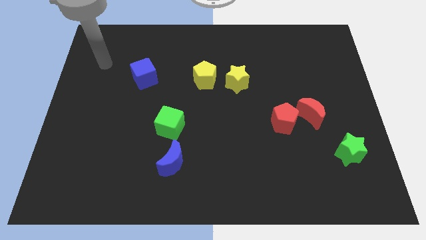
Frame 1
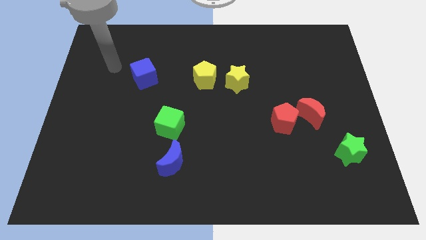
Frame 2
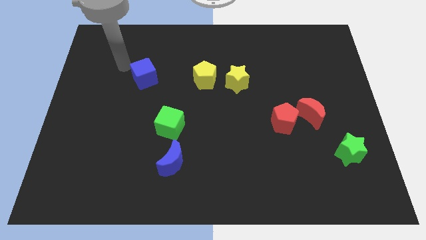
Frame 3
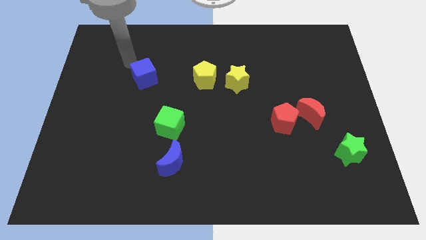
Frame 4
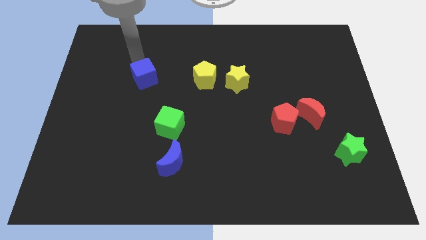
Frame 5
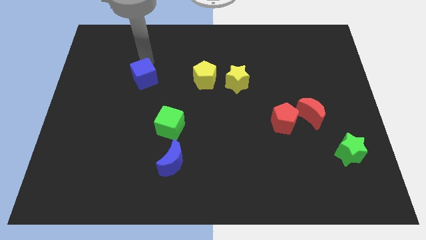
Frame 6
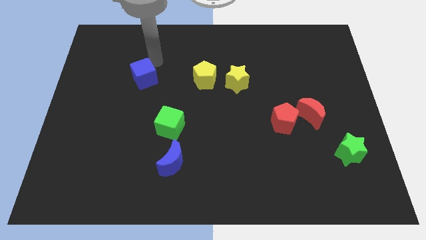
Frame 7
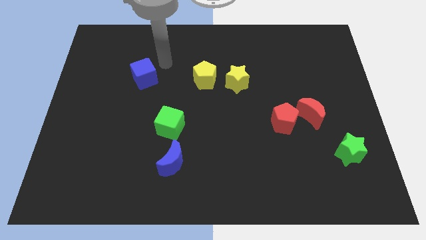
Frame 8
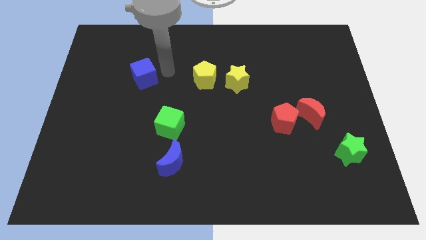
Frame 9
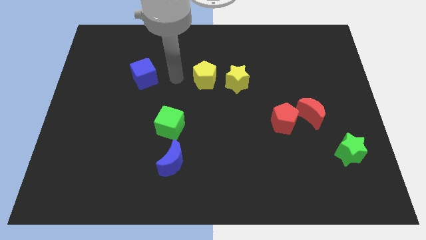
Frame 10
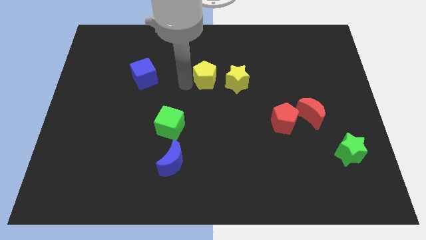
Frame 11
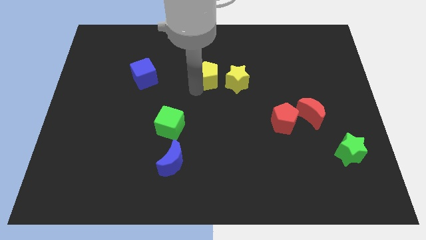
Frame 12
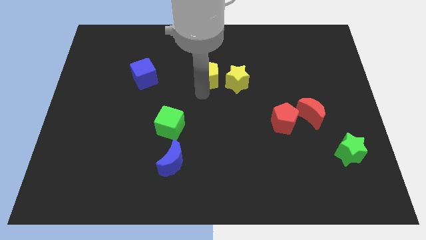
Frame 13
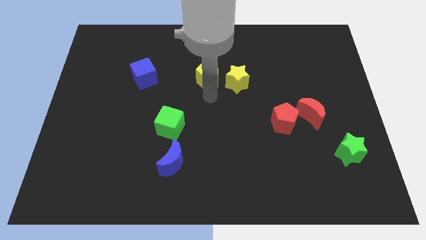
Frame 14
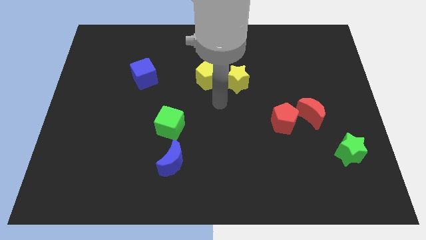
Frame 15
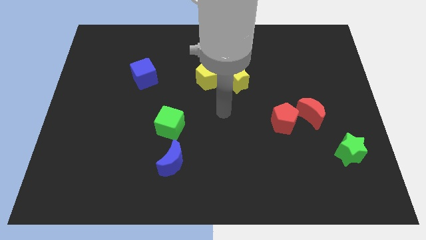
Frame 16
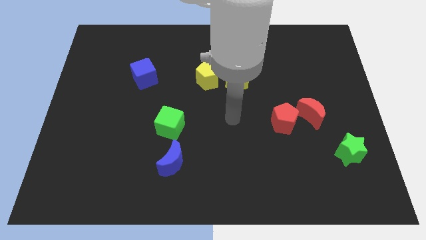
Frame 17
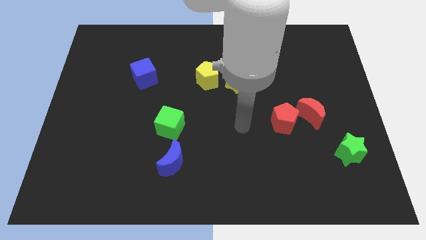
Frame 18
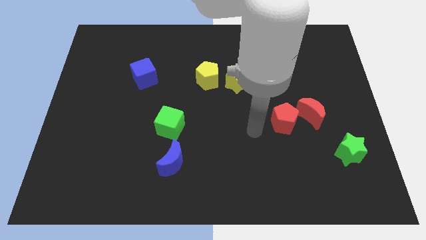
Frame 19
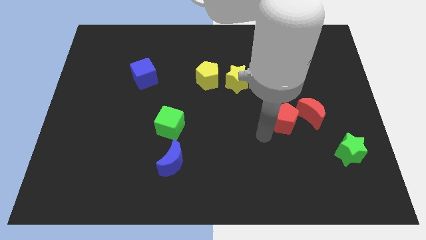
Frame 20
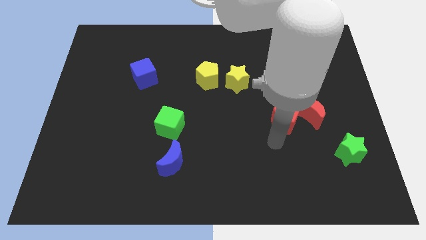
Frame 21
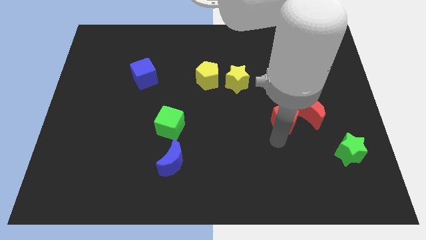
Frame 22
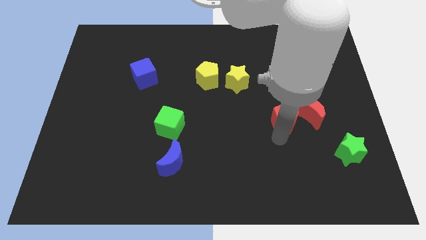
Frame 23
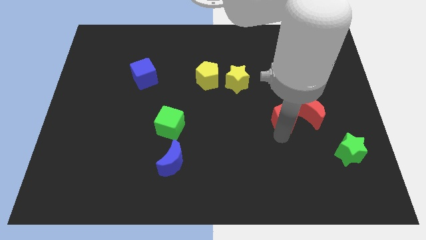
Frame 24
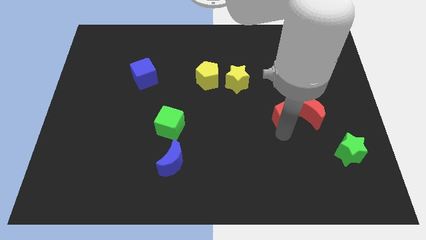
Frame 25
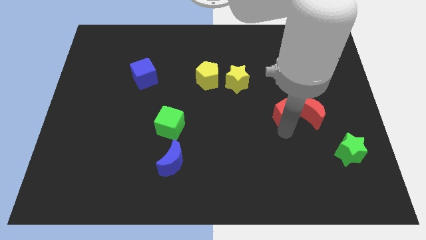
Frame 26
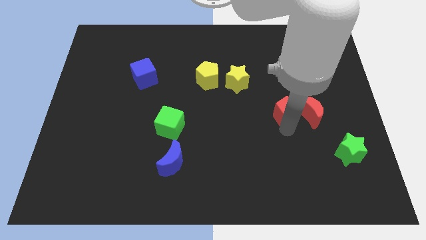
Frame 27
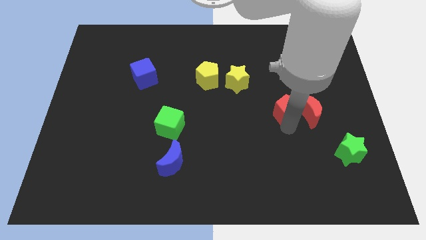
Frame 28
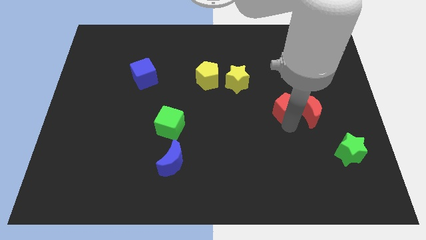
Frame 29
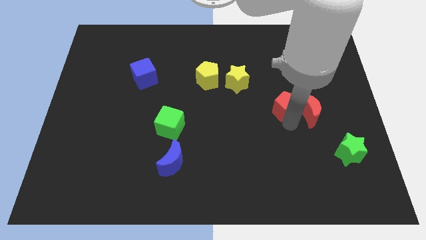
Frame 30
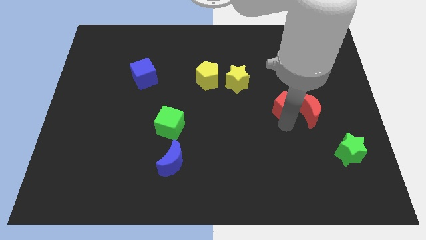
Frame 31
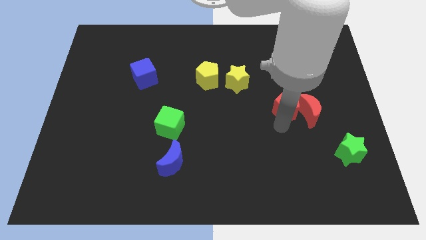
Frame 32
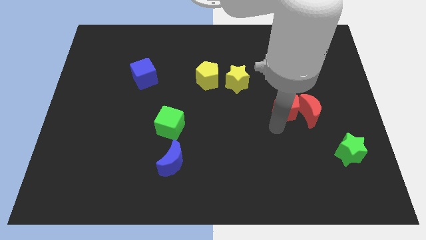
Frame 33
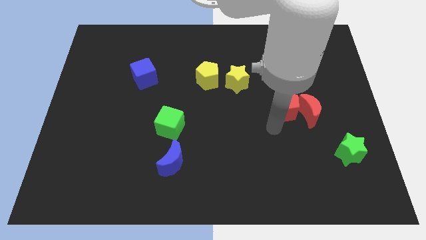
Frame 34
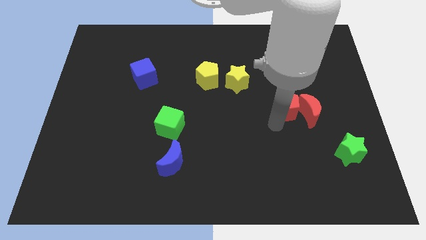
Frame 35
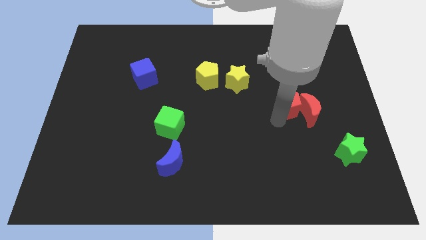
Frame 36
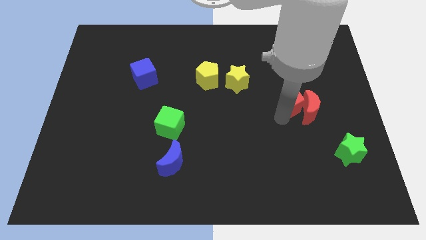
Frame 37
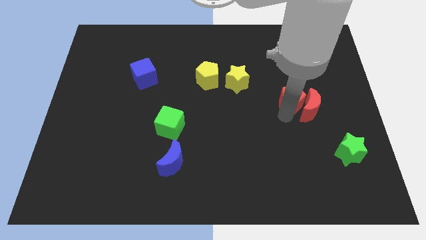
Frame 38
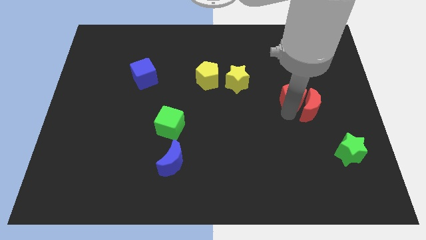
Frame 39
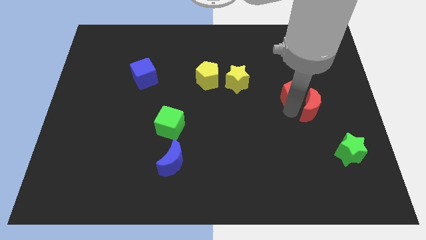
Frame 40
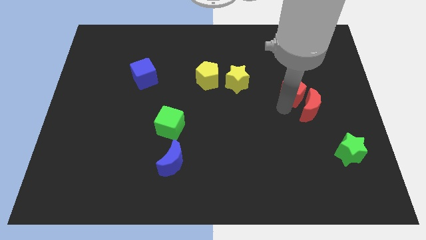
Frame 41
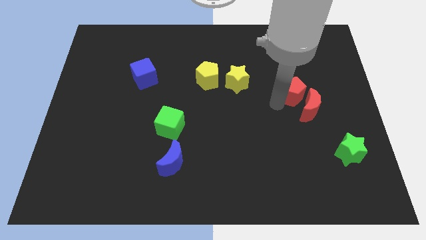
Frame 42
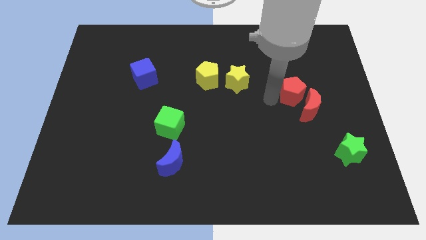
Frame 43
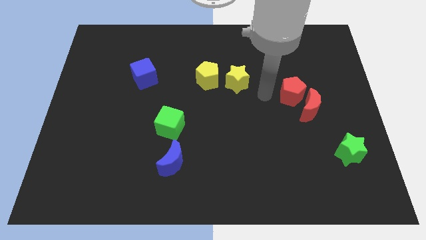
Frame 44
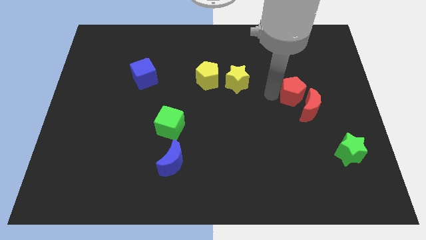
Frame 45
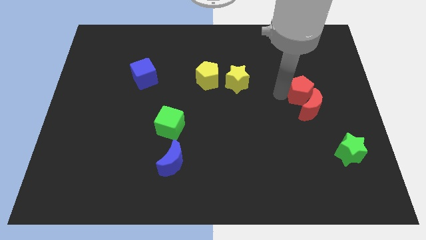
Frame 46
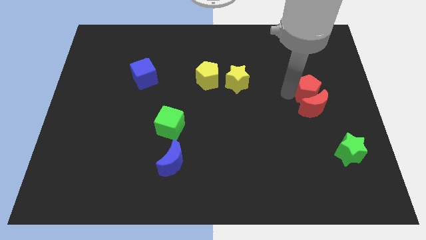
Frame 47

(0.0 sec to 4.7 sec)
move the red pentagon to the top right of the red moon

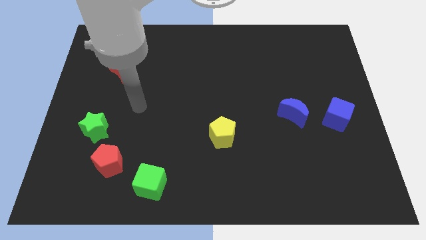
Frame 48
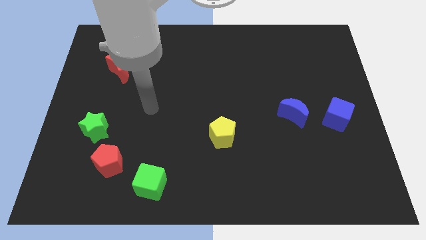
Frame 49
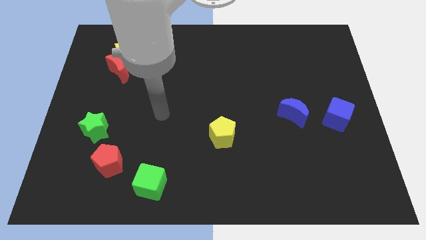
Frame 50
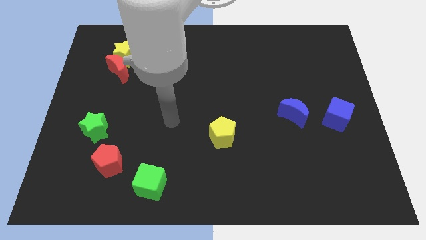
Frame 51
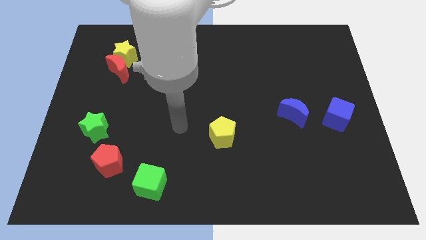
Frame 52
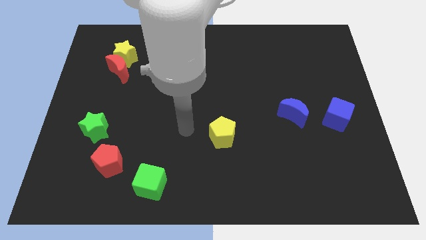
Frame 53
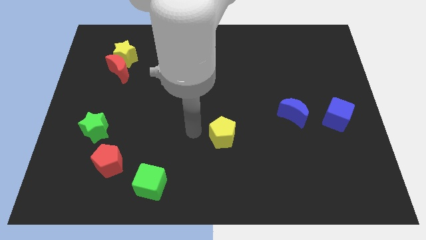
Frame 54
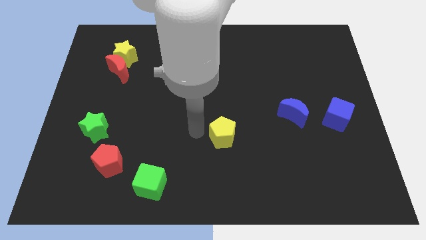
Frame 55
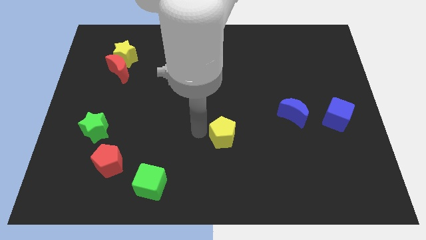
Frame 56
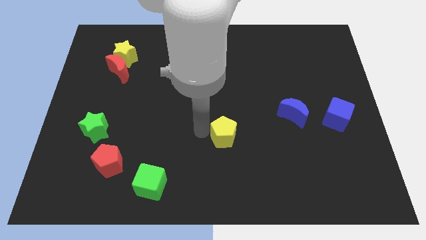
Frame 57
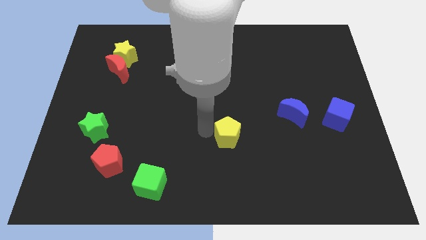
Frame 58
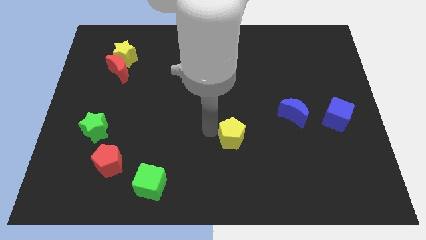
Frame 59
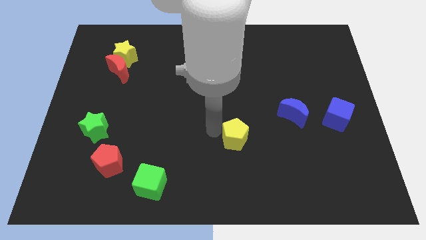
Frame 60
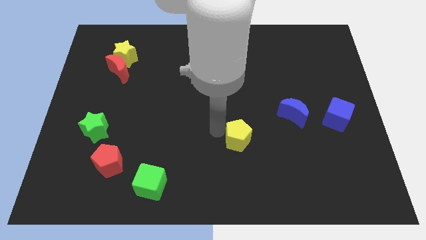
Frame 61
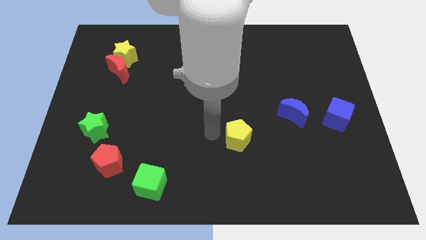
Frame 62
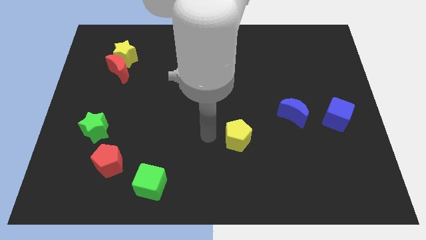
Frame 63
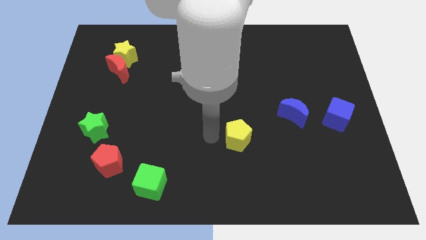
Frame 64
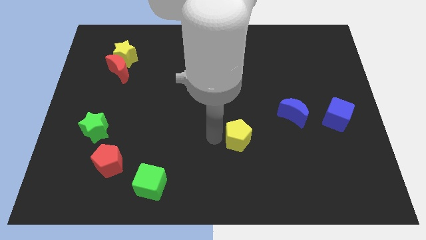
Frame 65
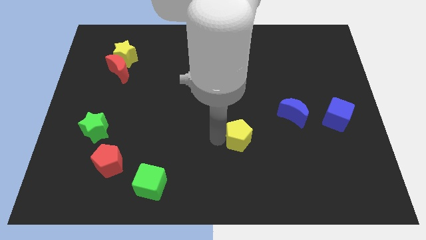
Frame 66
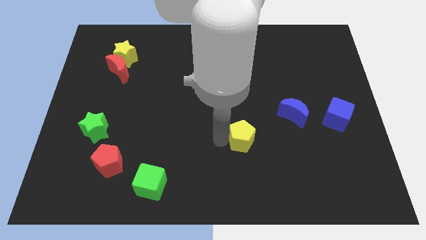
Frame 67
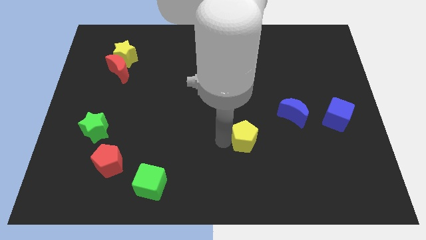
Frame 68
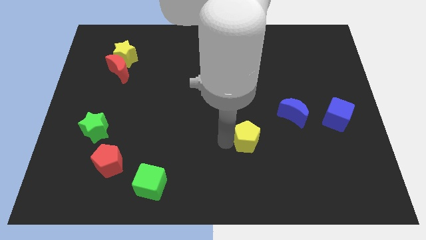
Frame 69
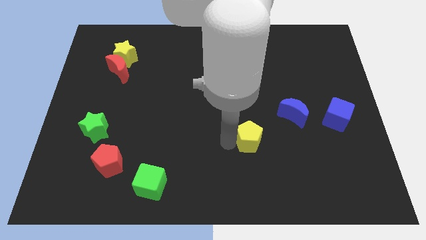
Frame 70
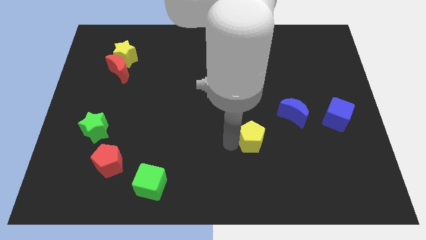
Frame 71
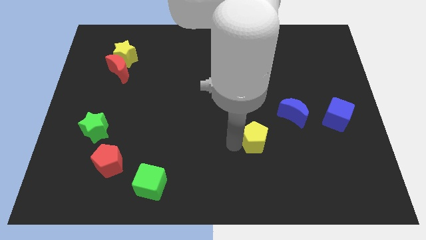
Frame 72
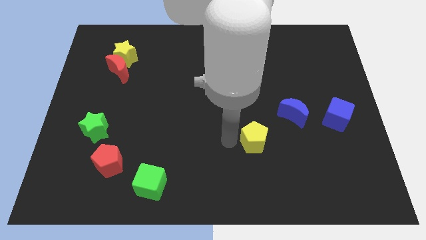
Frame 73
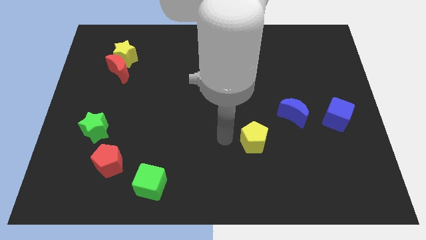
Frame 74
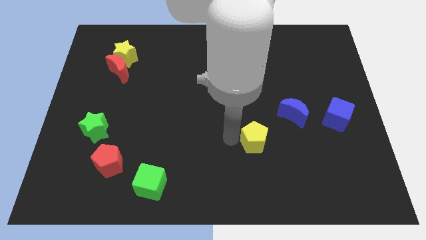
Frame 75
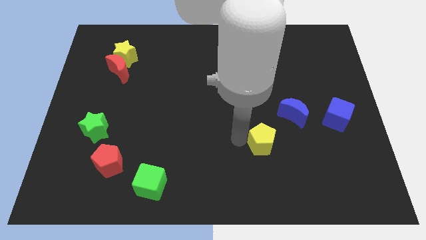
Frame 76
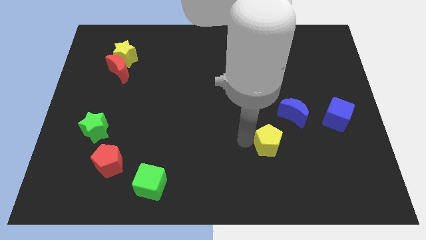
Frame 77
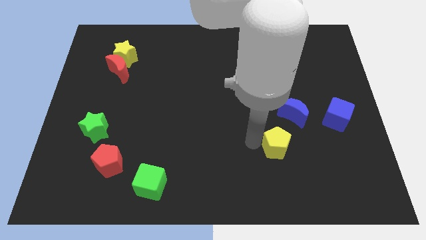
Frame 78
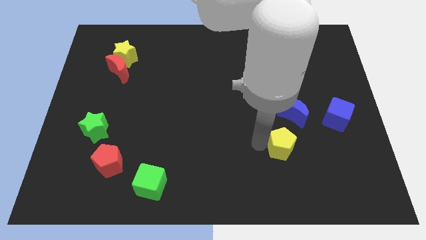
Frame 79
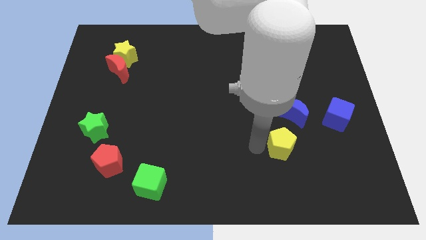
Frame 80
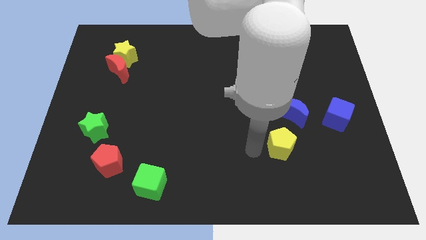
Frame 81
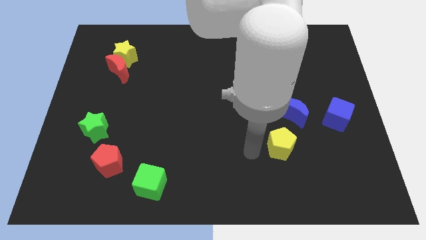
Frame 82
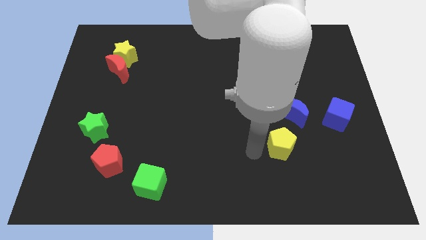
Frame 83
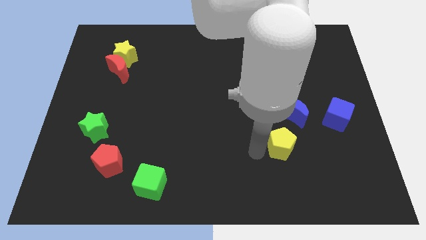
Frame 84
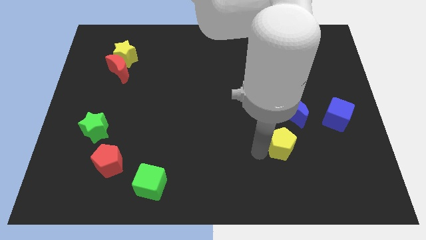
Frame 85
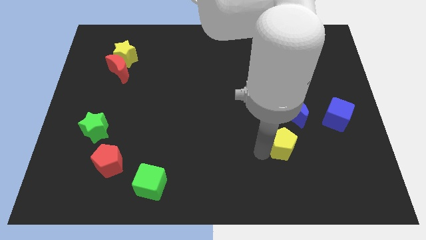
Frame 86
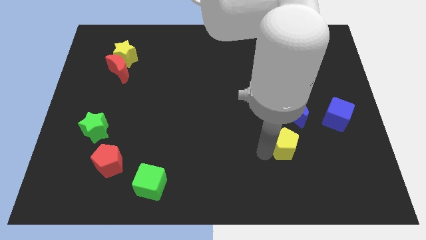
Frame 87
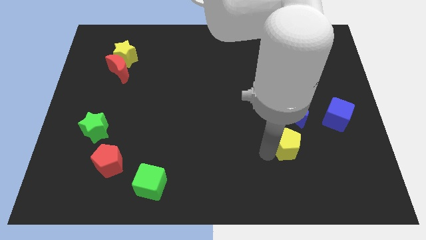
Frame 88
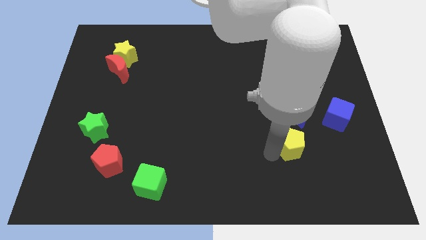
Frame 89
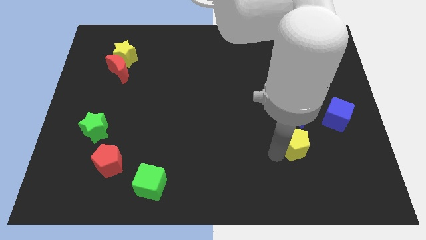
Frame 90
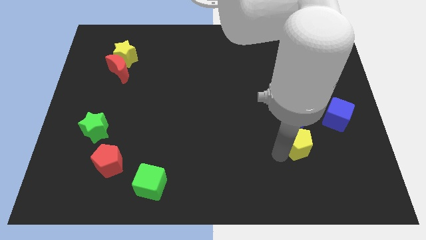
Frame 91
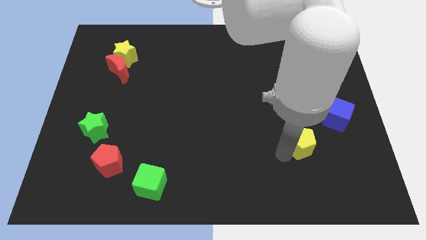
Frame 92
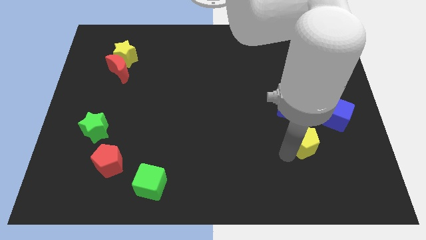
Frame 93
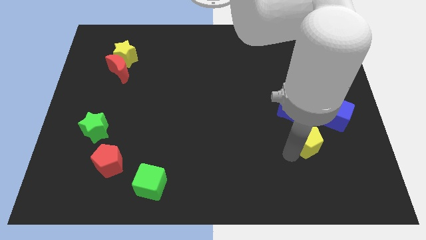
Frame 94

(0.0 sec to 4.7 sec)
push the yellow pentagon diagonally down and to the right of the blue moon
